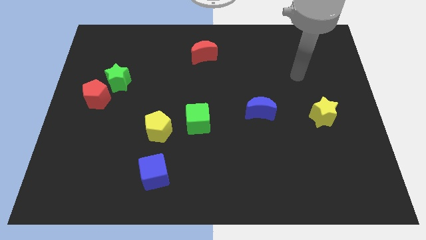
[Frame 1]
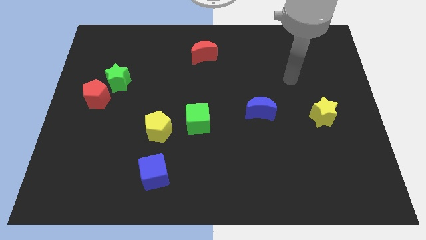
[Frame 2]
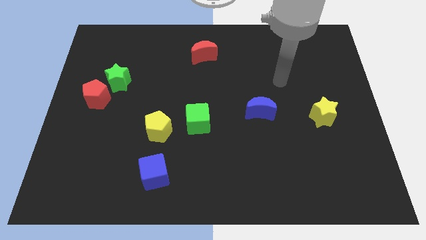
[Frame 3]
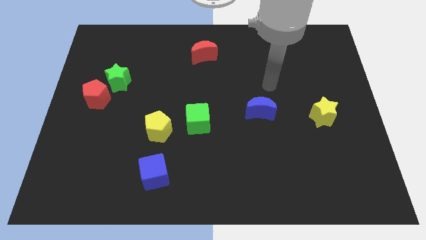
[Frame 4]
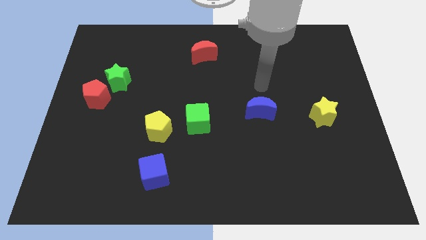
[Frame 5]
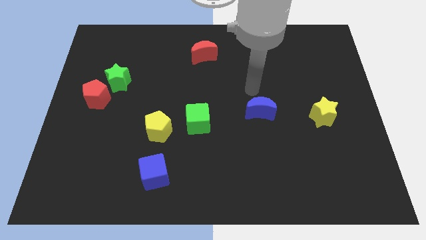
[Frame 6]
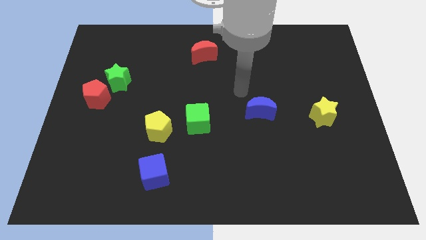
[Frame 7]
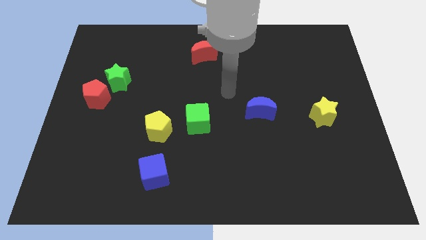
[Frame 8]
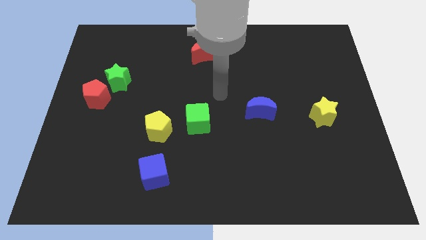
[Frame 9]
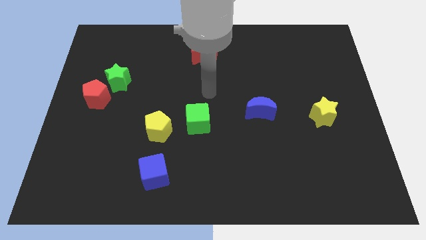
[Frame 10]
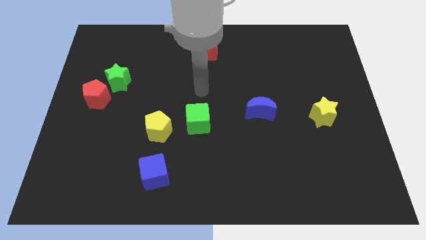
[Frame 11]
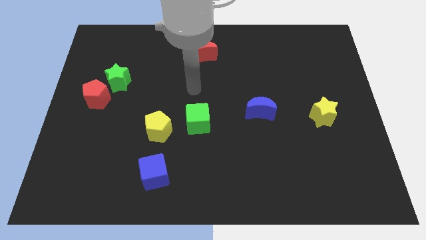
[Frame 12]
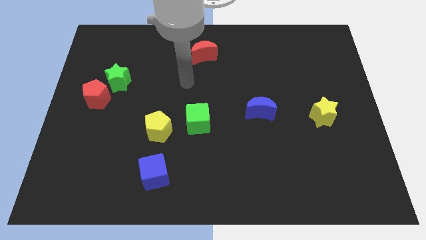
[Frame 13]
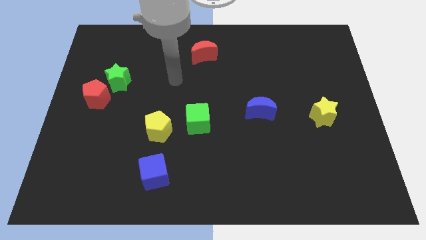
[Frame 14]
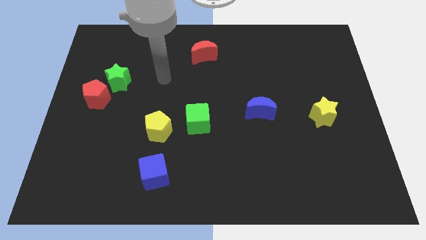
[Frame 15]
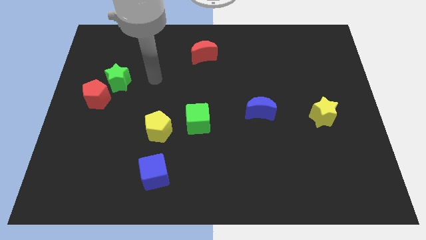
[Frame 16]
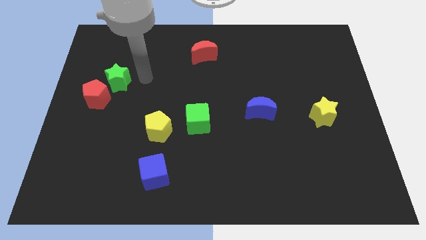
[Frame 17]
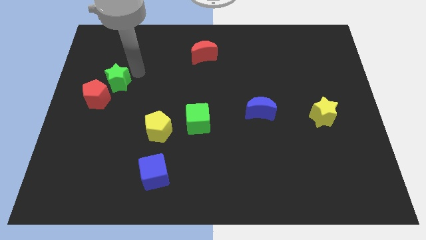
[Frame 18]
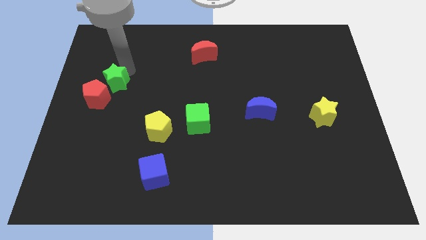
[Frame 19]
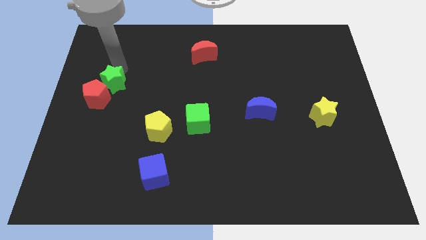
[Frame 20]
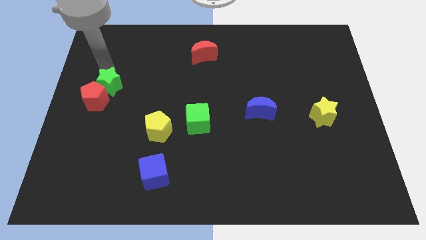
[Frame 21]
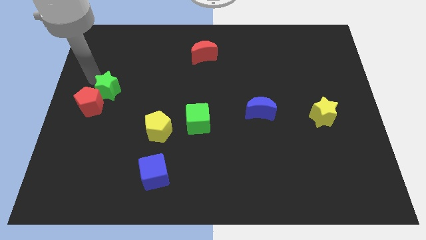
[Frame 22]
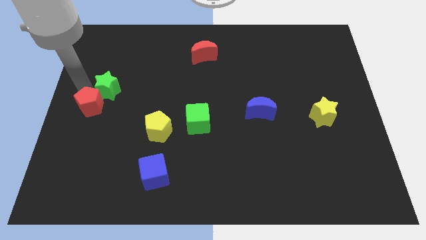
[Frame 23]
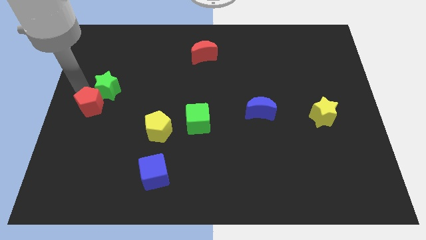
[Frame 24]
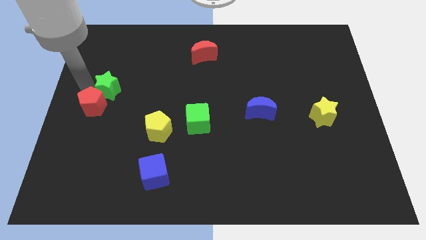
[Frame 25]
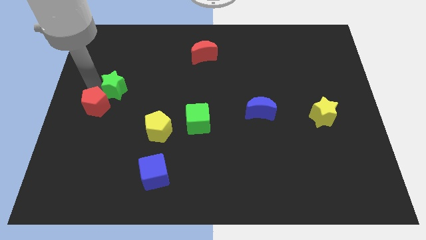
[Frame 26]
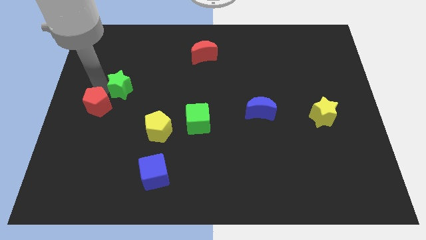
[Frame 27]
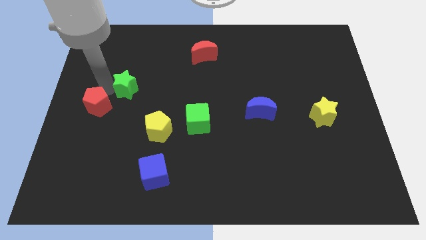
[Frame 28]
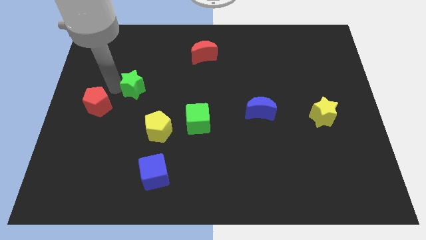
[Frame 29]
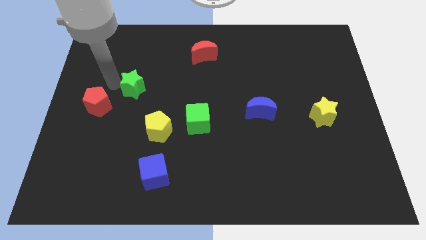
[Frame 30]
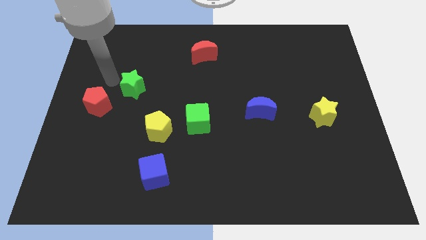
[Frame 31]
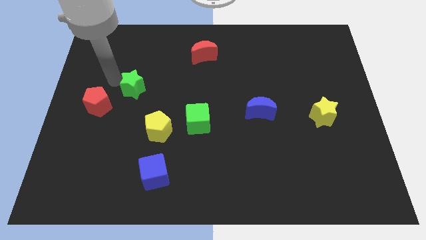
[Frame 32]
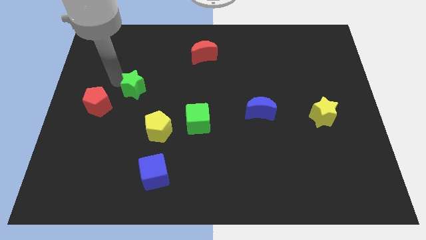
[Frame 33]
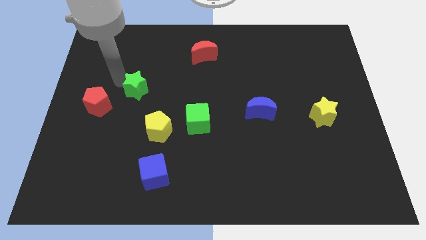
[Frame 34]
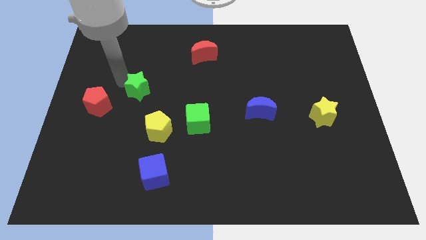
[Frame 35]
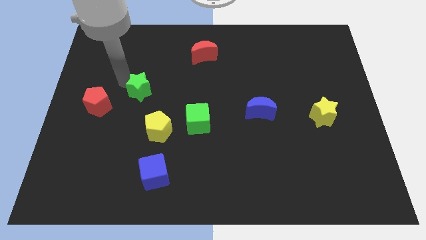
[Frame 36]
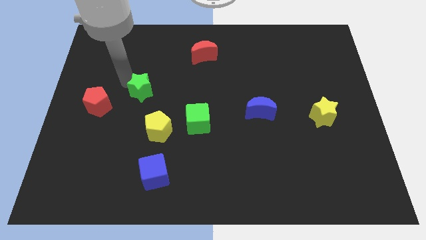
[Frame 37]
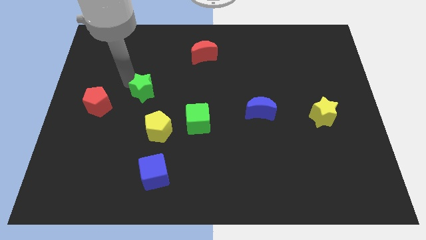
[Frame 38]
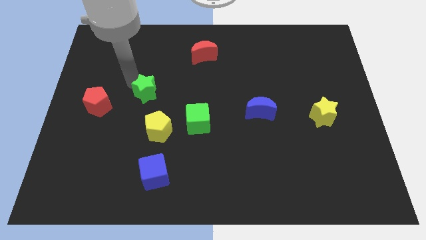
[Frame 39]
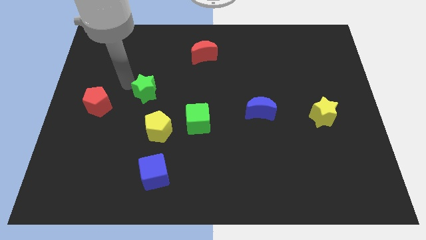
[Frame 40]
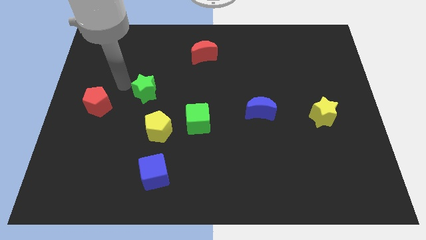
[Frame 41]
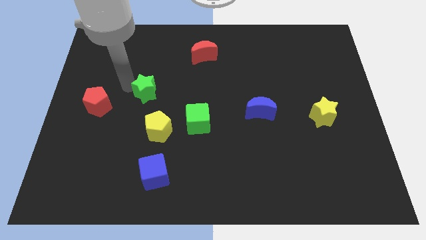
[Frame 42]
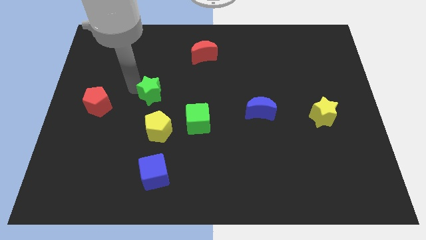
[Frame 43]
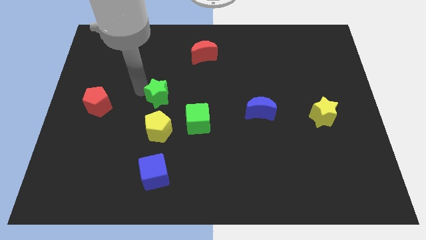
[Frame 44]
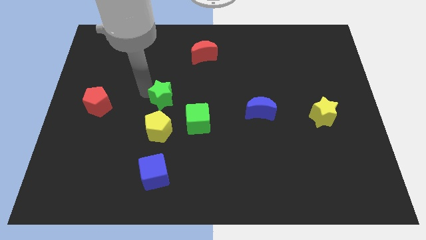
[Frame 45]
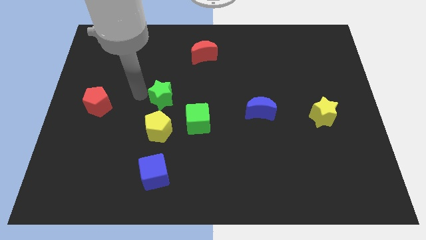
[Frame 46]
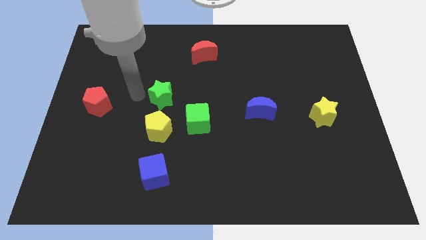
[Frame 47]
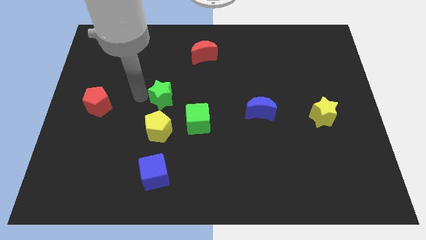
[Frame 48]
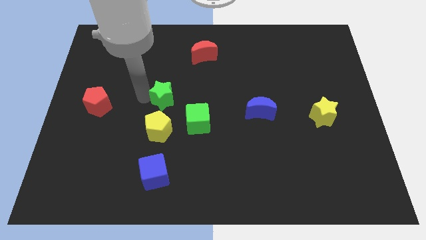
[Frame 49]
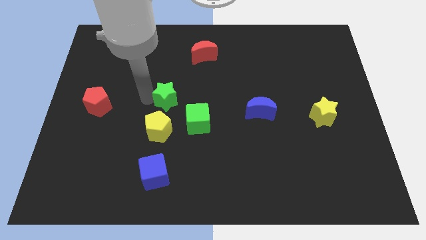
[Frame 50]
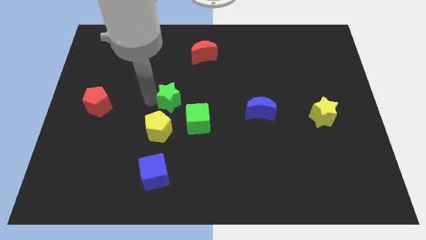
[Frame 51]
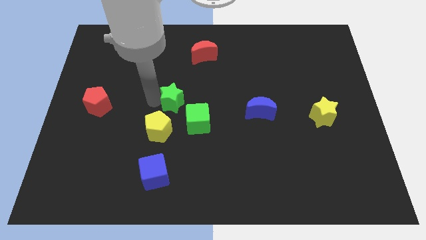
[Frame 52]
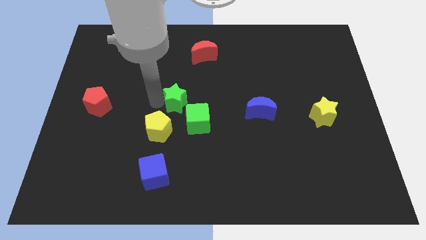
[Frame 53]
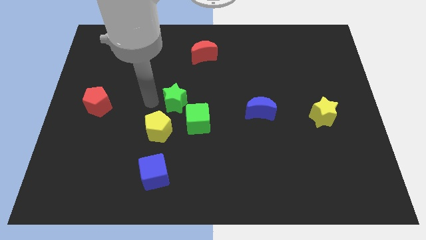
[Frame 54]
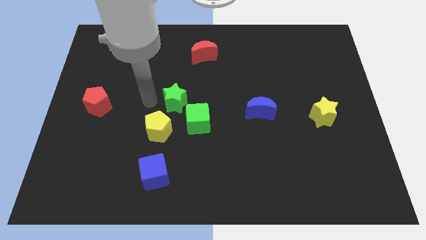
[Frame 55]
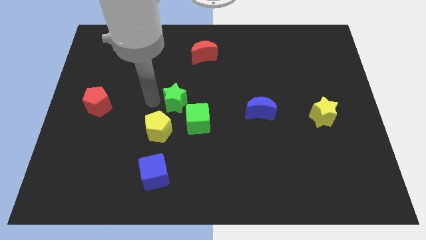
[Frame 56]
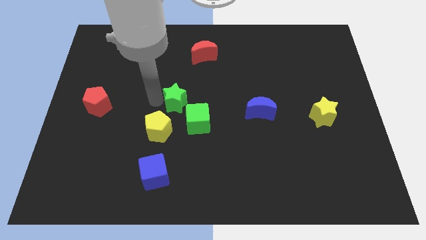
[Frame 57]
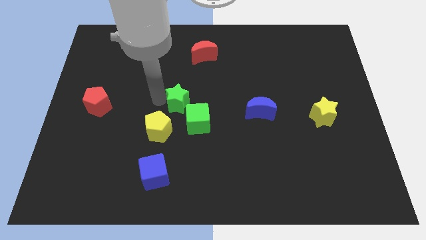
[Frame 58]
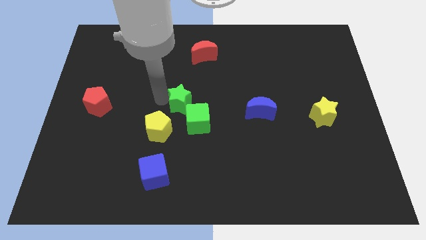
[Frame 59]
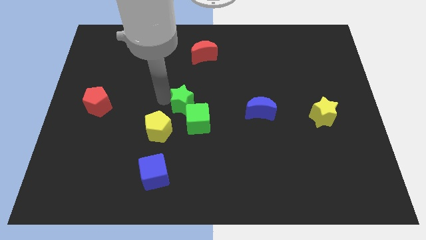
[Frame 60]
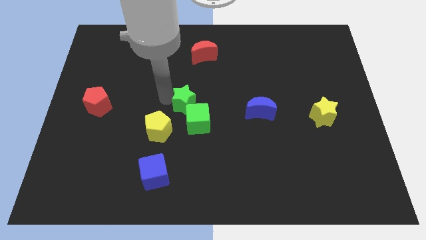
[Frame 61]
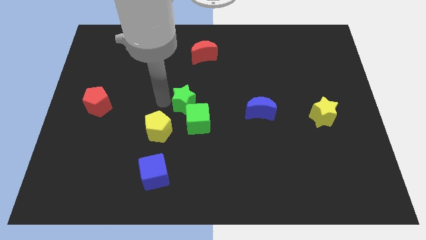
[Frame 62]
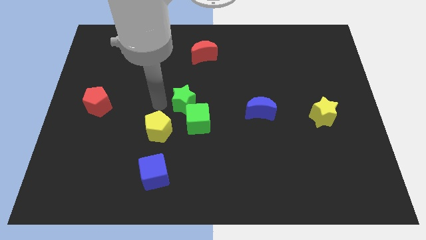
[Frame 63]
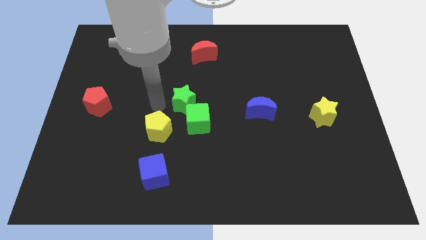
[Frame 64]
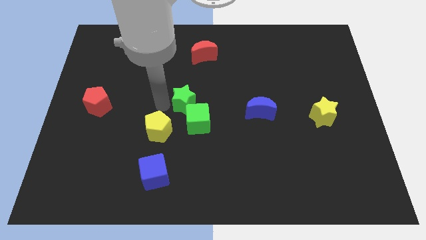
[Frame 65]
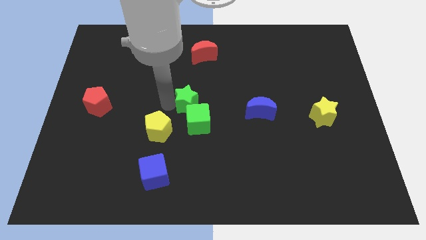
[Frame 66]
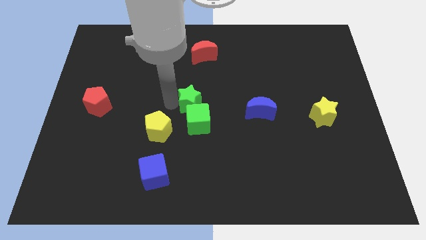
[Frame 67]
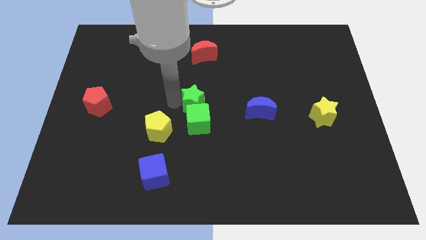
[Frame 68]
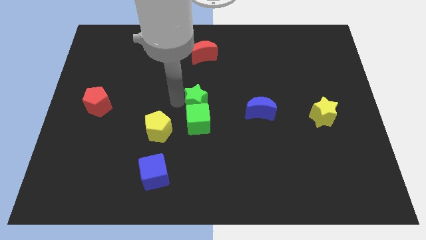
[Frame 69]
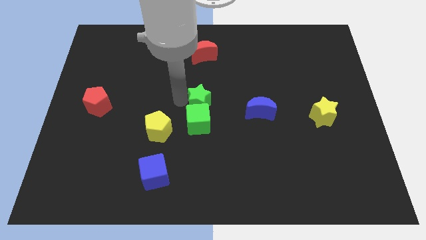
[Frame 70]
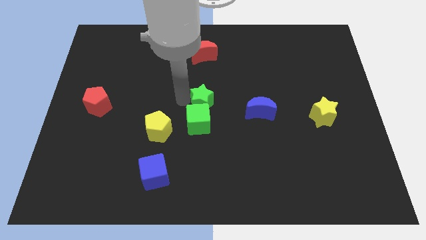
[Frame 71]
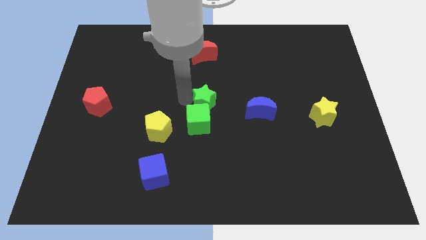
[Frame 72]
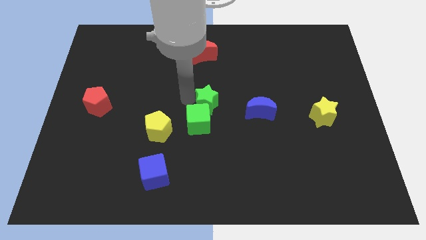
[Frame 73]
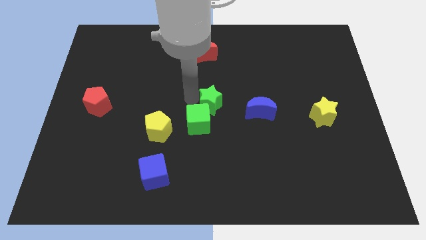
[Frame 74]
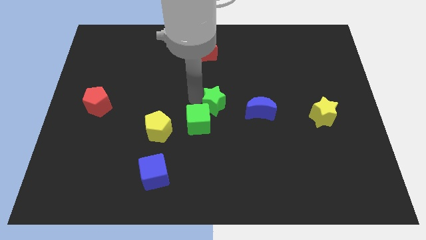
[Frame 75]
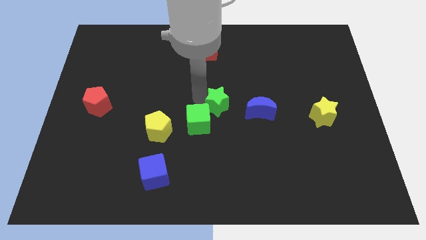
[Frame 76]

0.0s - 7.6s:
slide the green star just right of the green cube
